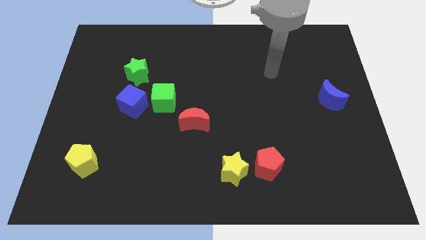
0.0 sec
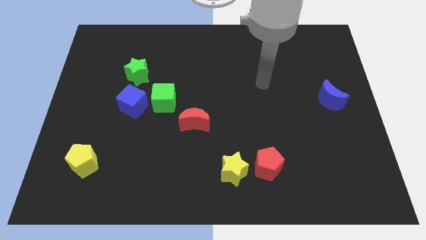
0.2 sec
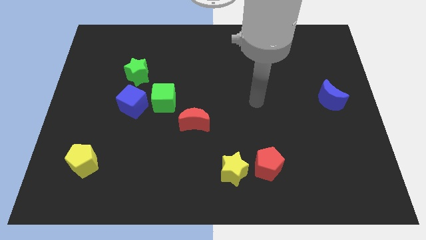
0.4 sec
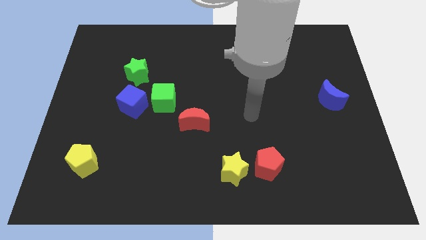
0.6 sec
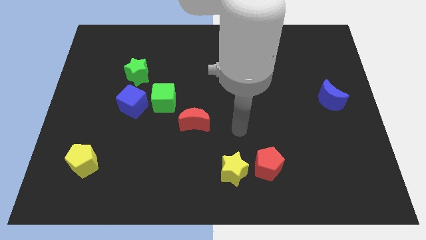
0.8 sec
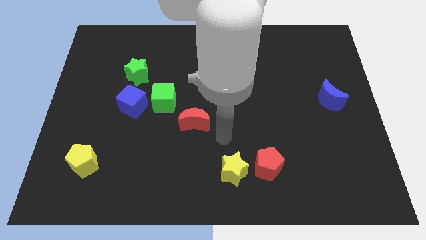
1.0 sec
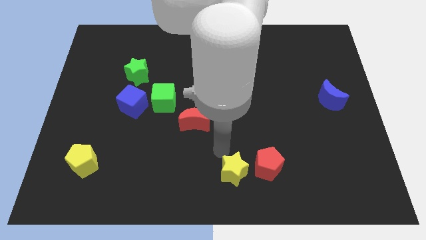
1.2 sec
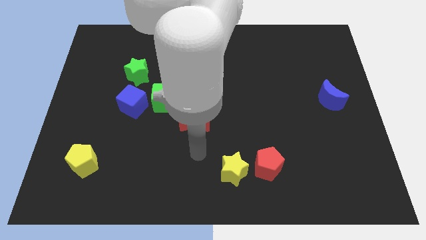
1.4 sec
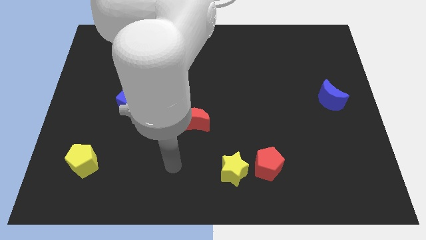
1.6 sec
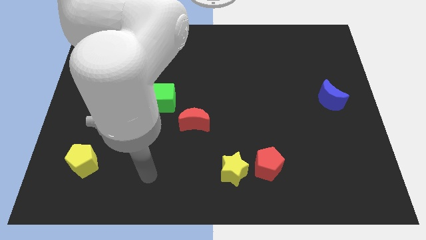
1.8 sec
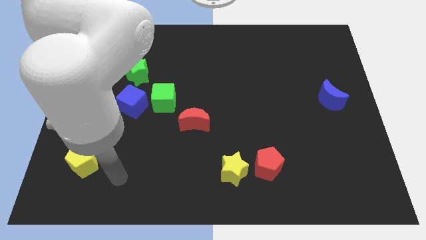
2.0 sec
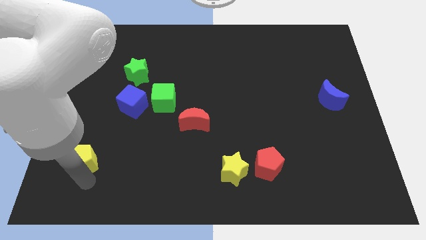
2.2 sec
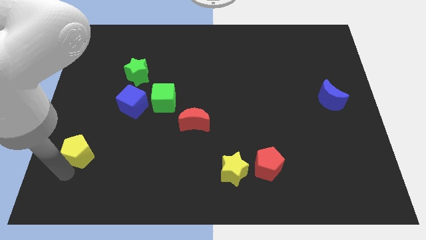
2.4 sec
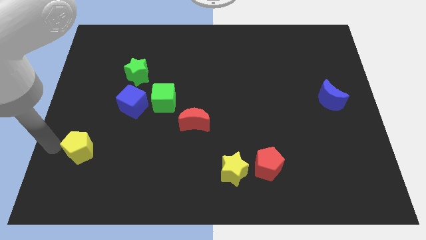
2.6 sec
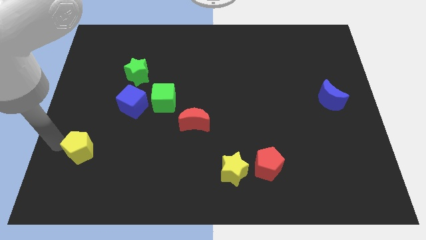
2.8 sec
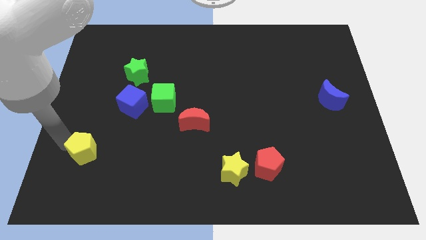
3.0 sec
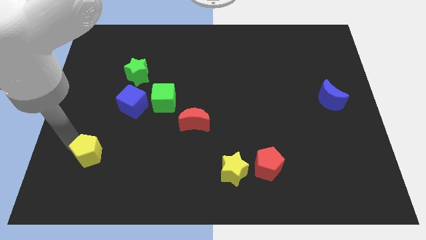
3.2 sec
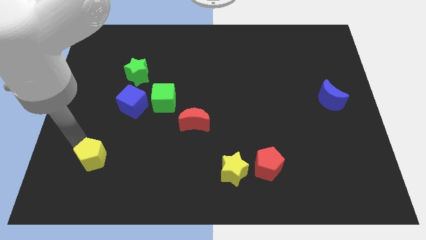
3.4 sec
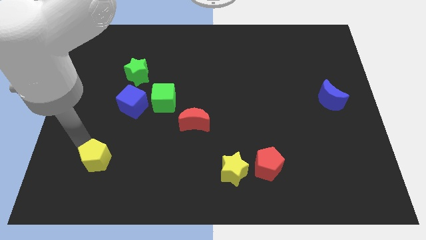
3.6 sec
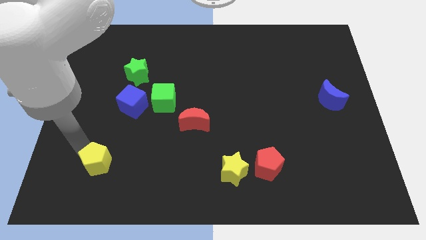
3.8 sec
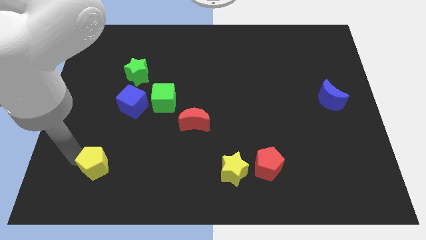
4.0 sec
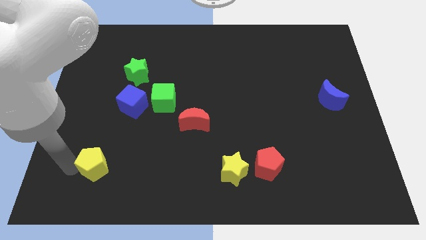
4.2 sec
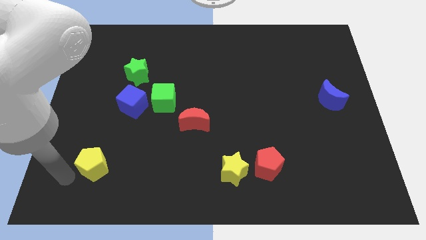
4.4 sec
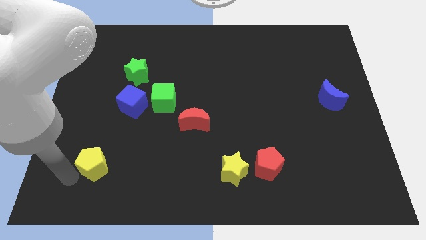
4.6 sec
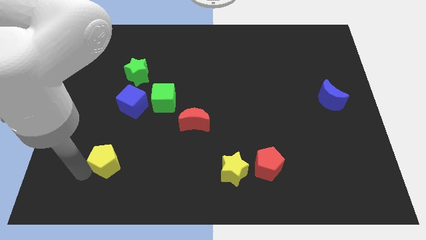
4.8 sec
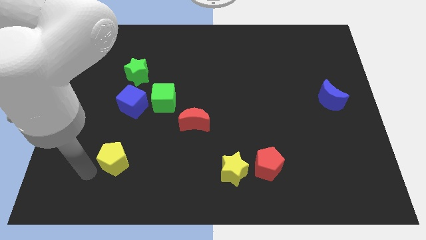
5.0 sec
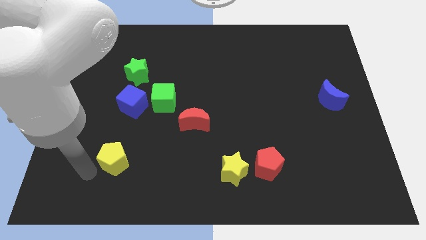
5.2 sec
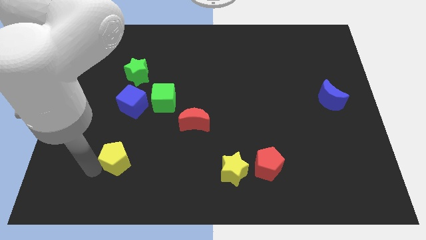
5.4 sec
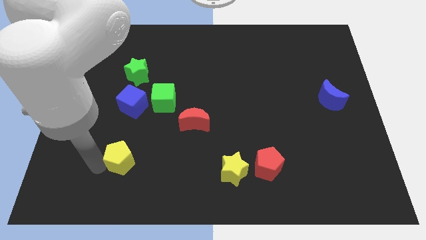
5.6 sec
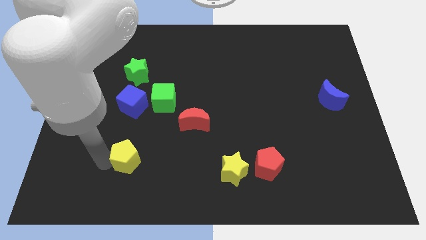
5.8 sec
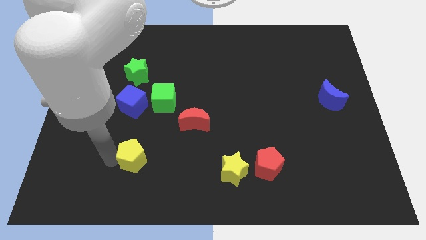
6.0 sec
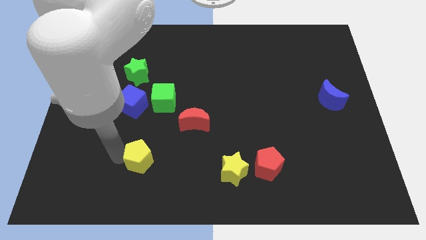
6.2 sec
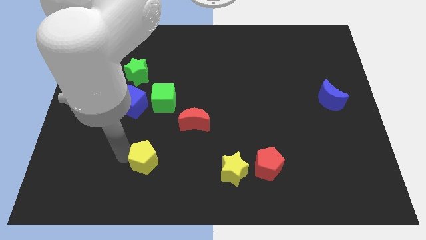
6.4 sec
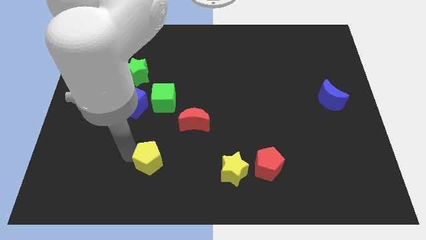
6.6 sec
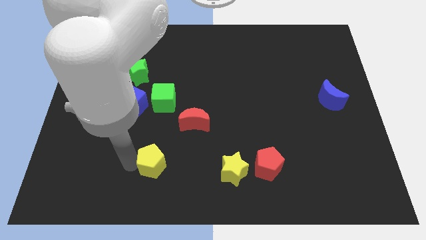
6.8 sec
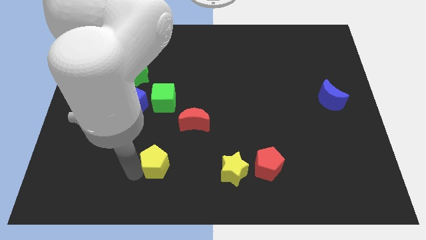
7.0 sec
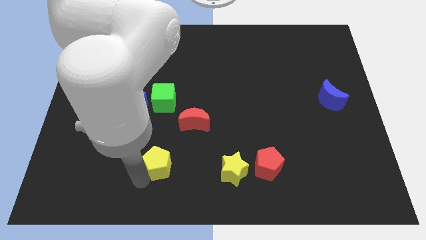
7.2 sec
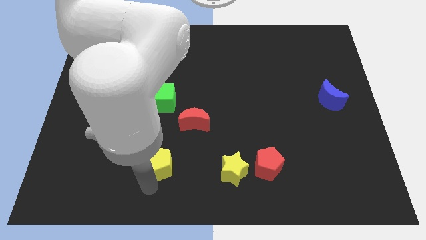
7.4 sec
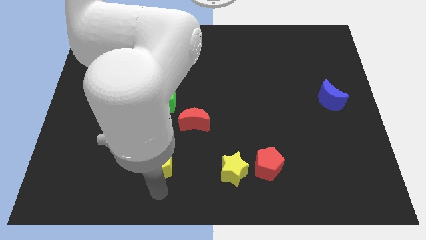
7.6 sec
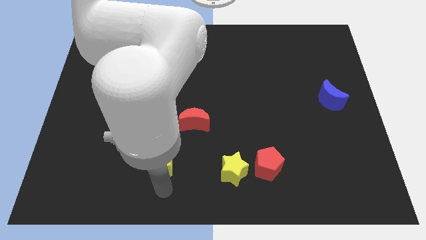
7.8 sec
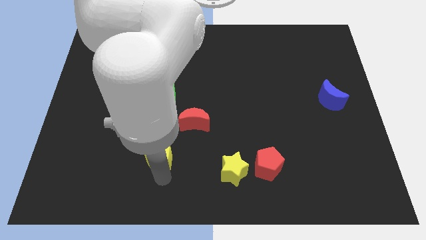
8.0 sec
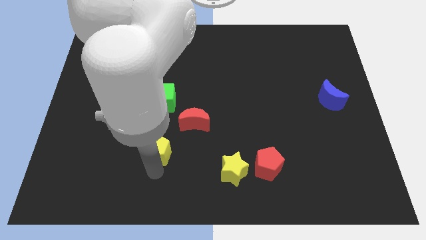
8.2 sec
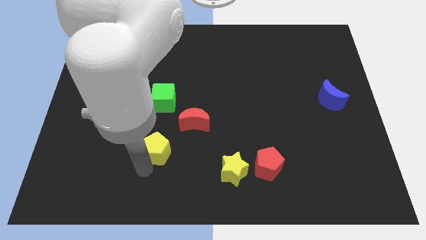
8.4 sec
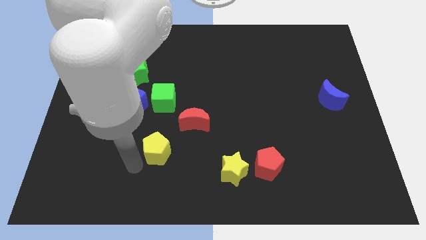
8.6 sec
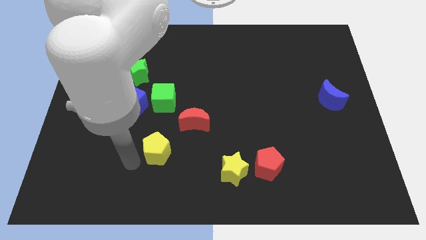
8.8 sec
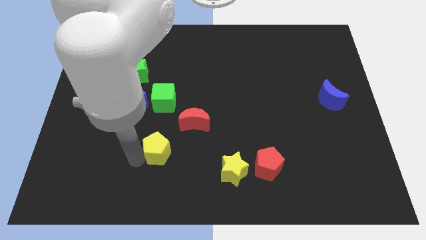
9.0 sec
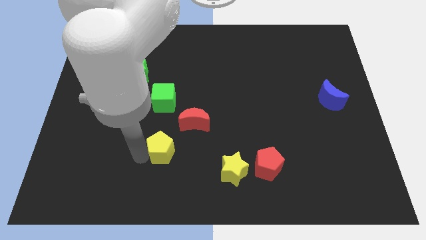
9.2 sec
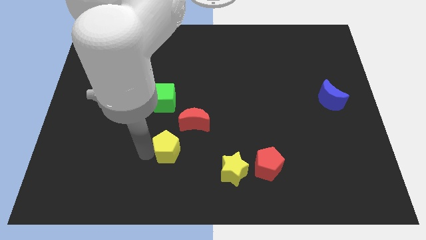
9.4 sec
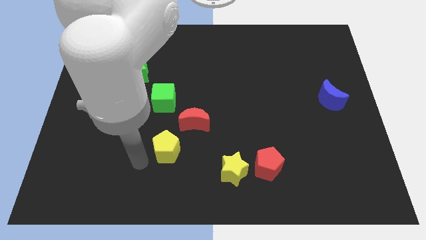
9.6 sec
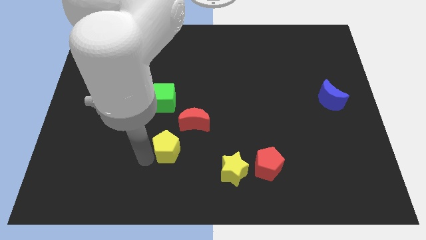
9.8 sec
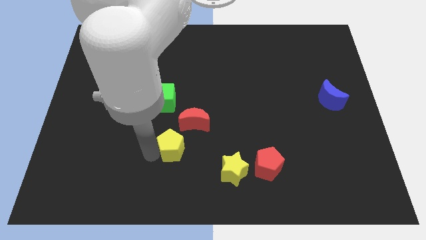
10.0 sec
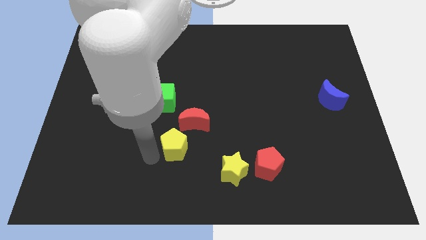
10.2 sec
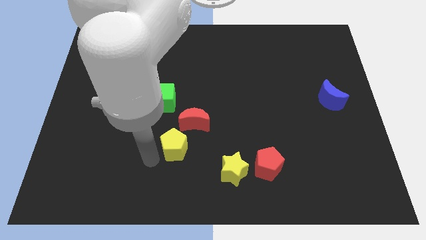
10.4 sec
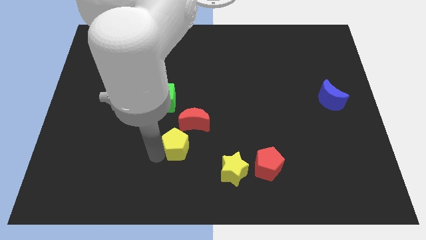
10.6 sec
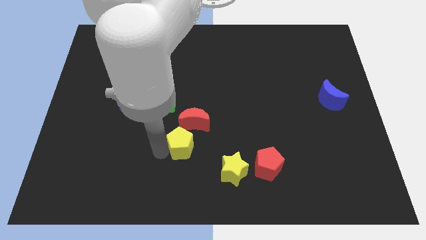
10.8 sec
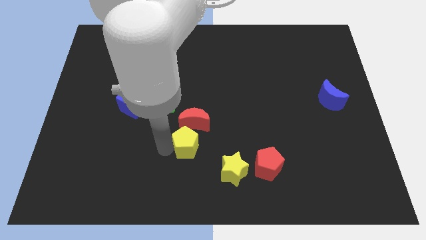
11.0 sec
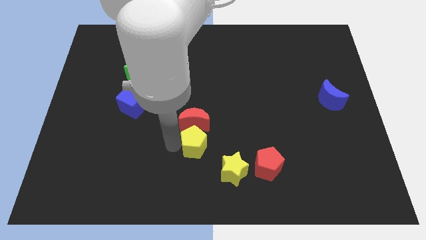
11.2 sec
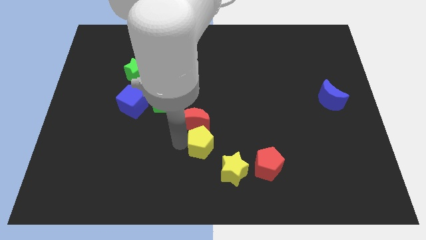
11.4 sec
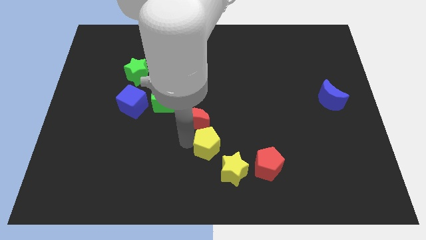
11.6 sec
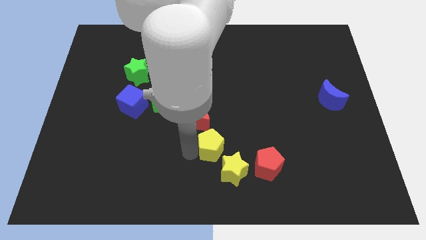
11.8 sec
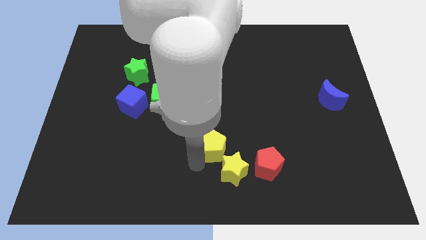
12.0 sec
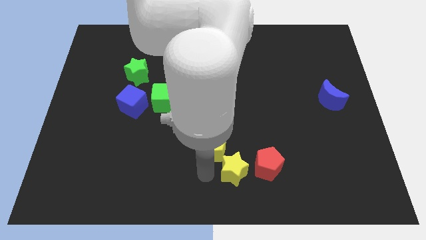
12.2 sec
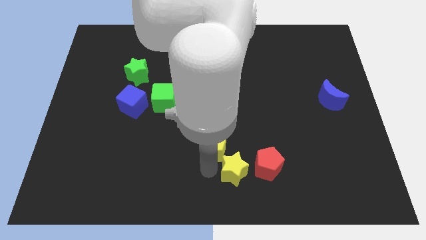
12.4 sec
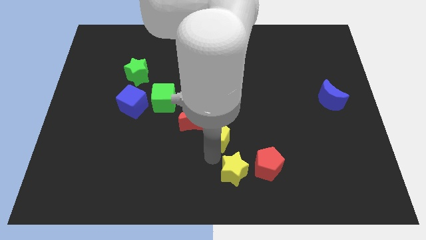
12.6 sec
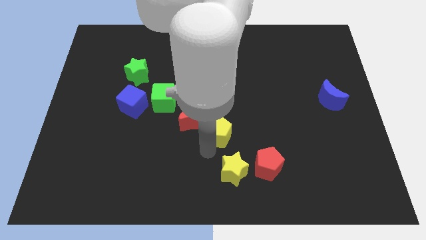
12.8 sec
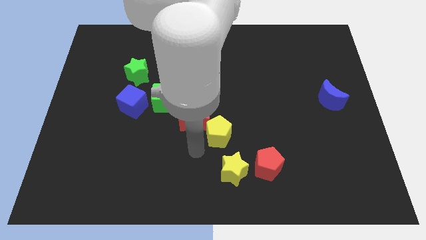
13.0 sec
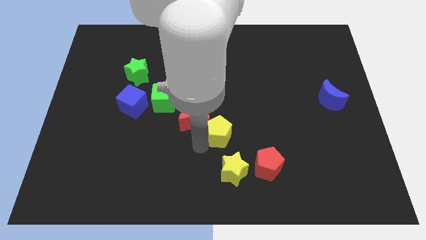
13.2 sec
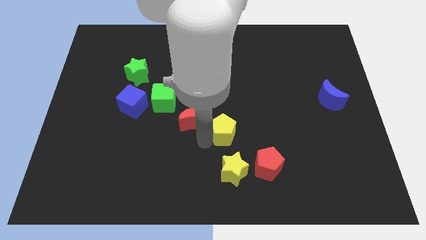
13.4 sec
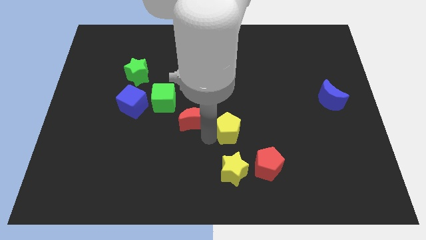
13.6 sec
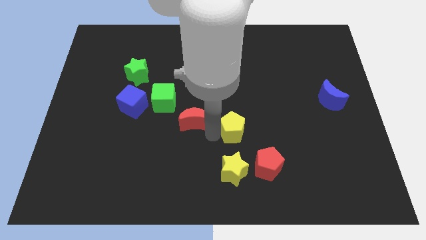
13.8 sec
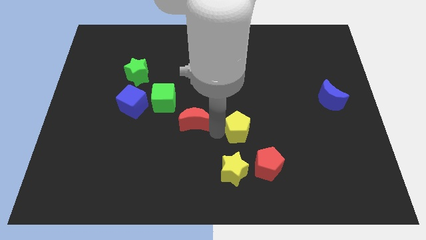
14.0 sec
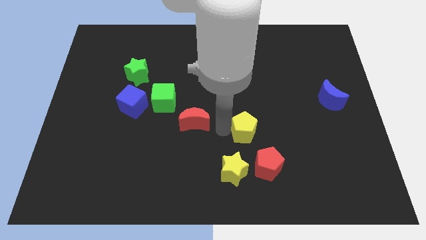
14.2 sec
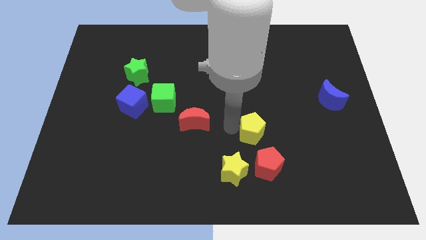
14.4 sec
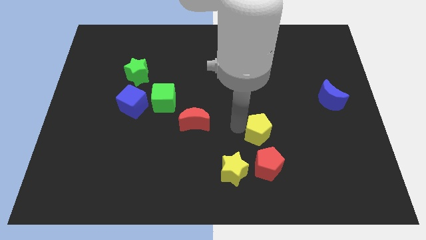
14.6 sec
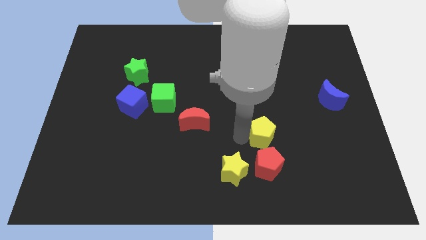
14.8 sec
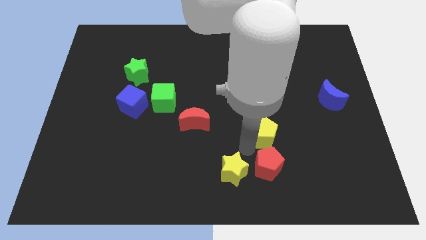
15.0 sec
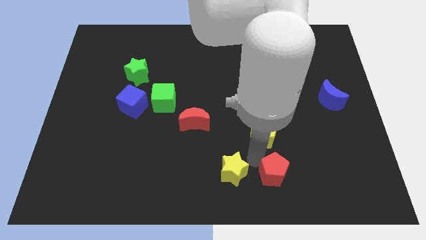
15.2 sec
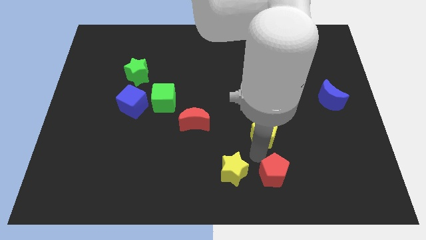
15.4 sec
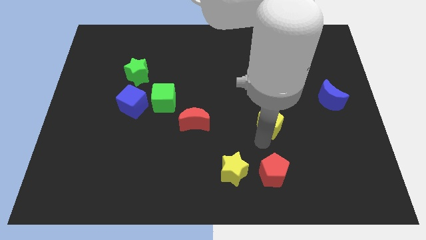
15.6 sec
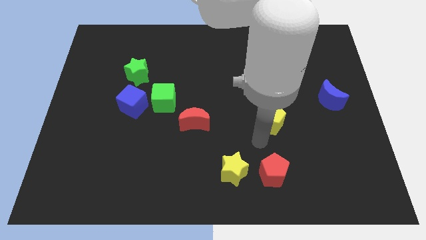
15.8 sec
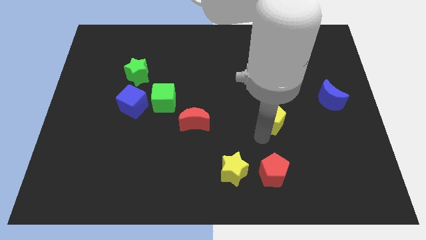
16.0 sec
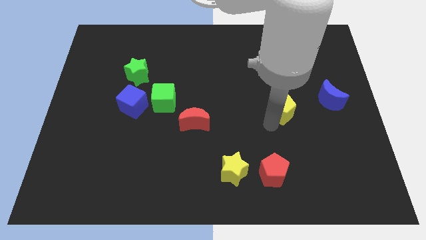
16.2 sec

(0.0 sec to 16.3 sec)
put the yellow pentagon left of the blue moon
